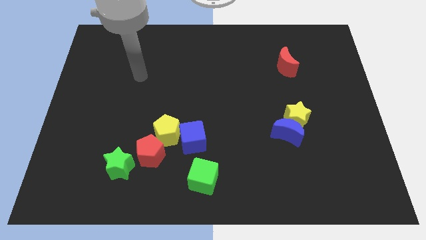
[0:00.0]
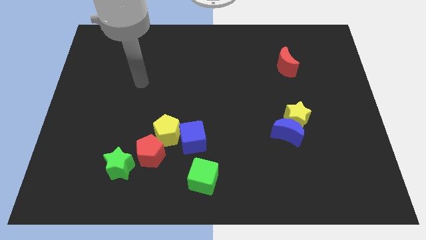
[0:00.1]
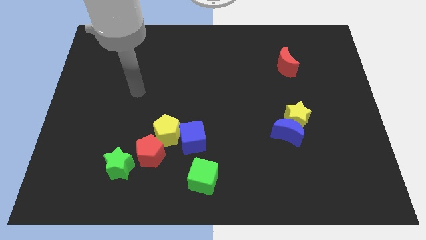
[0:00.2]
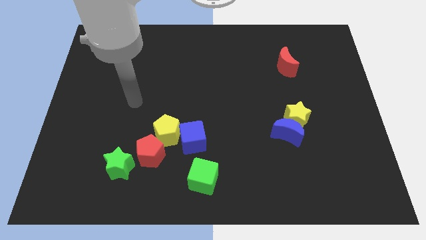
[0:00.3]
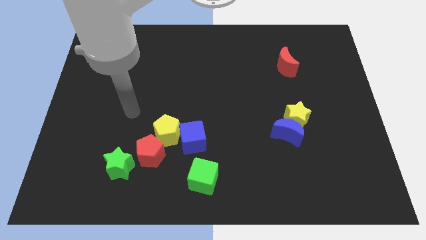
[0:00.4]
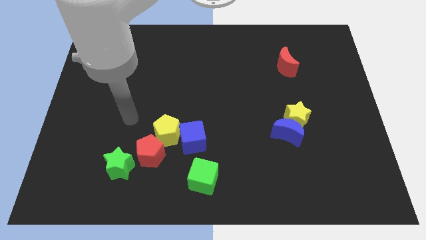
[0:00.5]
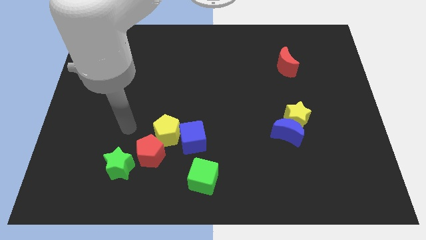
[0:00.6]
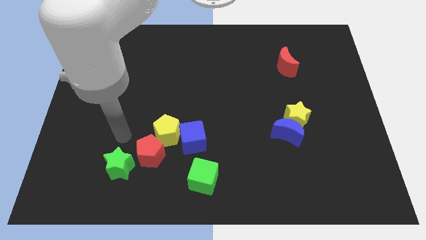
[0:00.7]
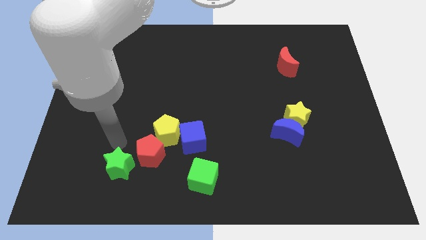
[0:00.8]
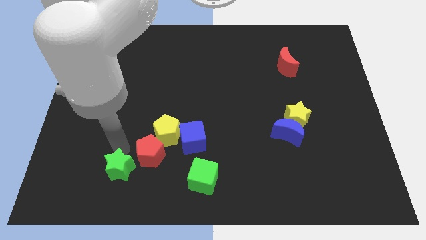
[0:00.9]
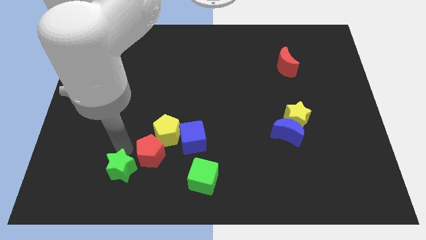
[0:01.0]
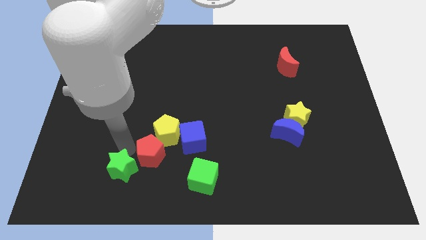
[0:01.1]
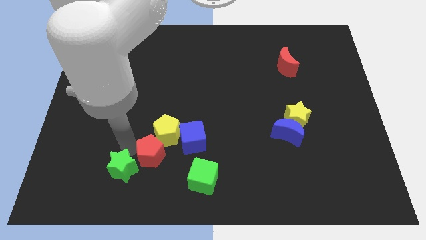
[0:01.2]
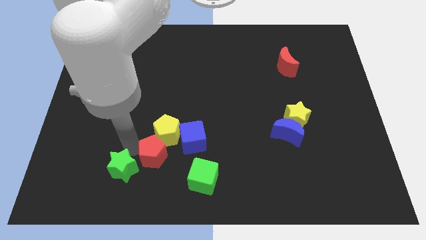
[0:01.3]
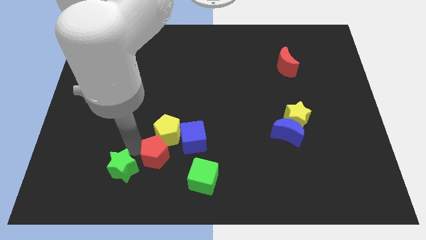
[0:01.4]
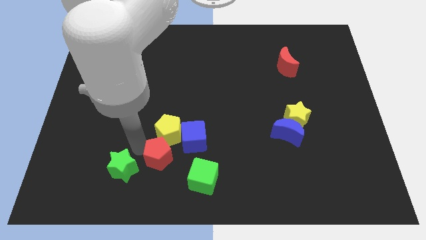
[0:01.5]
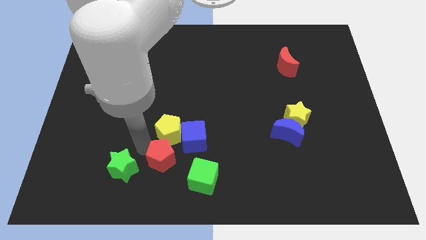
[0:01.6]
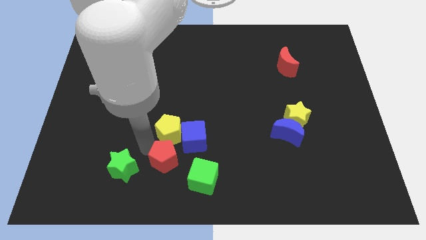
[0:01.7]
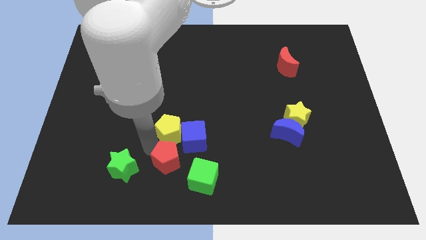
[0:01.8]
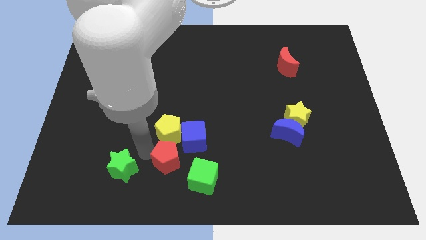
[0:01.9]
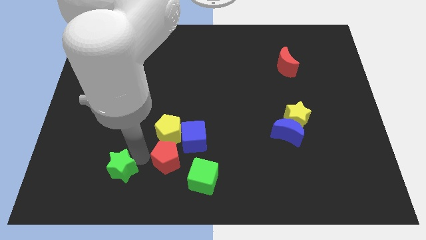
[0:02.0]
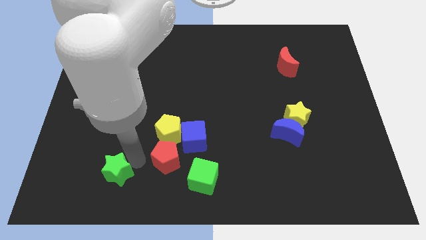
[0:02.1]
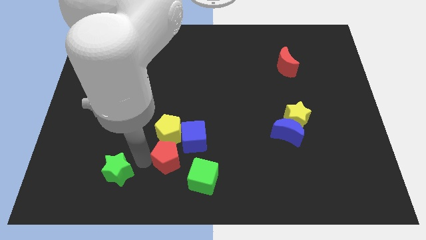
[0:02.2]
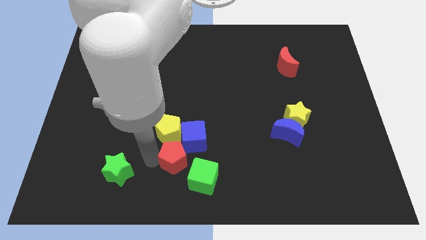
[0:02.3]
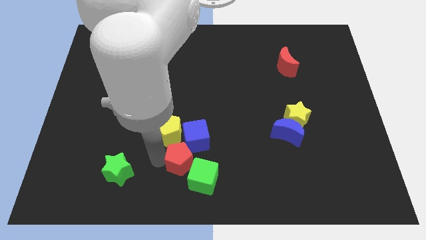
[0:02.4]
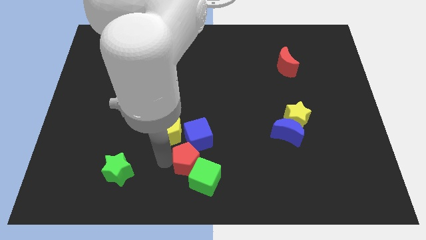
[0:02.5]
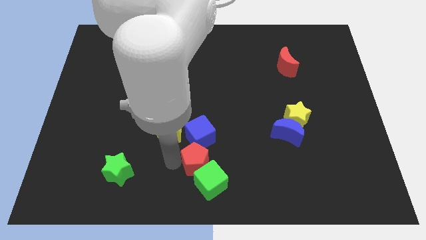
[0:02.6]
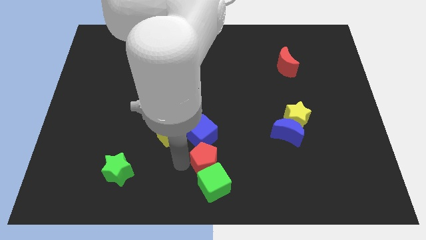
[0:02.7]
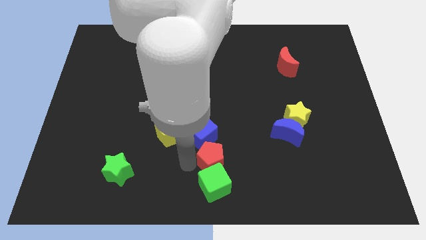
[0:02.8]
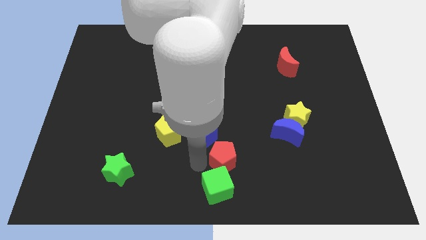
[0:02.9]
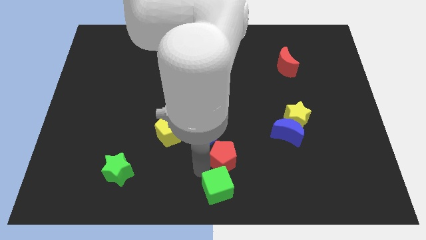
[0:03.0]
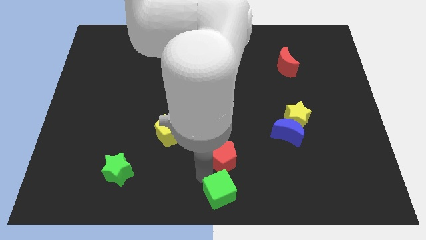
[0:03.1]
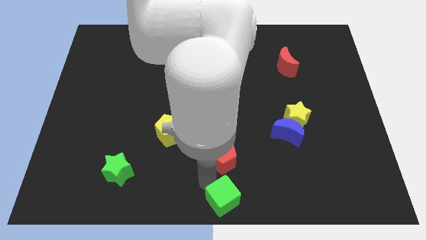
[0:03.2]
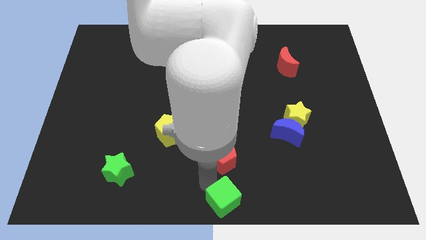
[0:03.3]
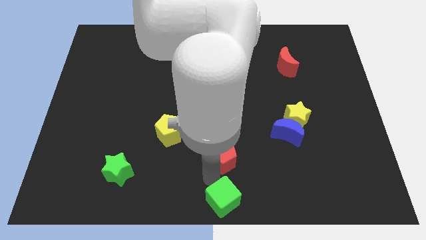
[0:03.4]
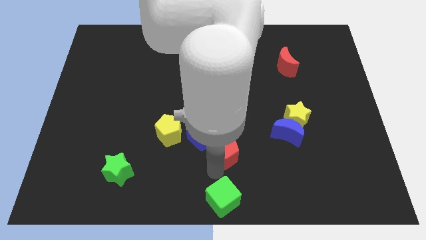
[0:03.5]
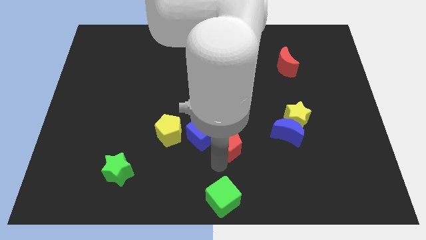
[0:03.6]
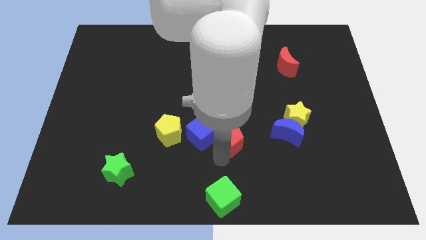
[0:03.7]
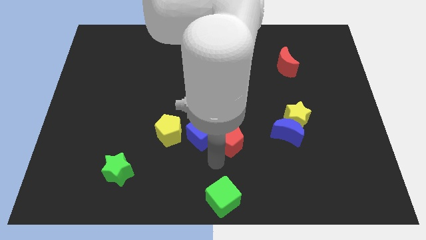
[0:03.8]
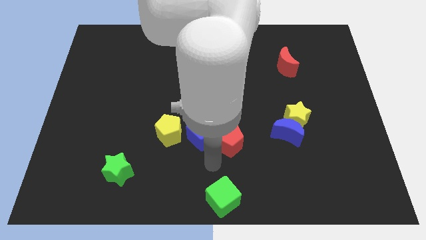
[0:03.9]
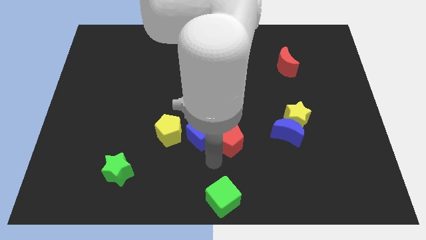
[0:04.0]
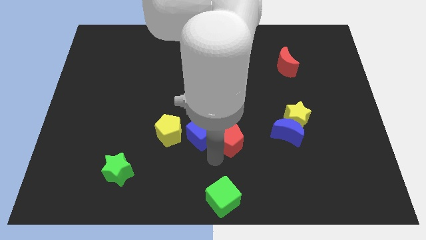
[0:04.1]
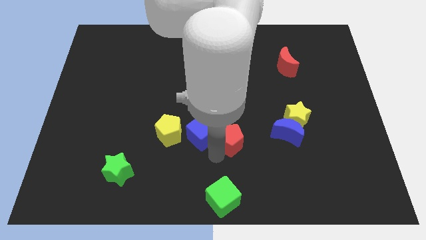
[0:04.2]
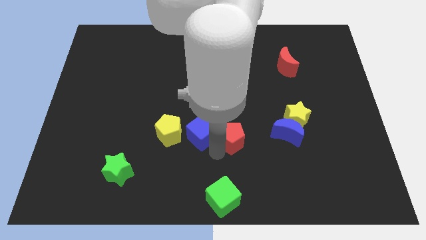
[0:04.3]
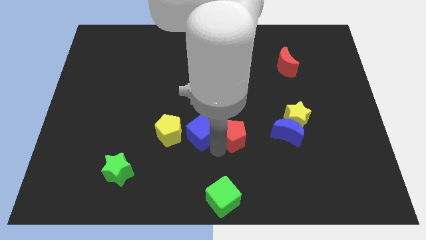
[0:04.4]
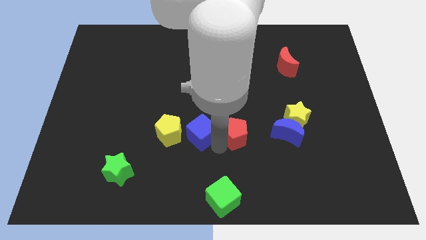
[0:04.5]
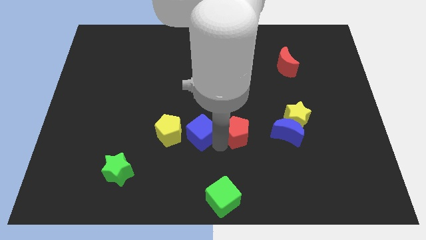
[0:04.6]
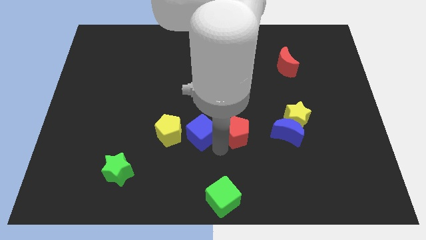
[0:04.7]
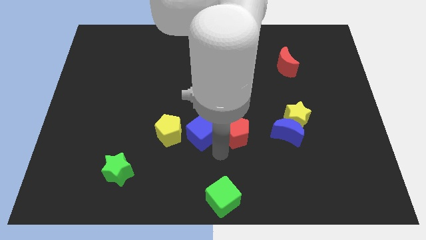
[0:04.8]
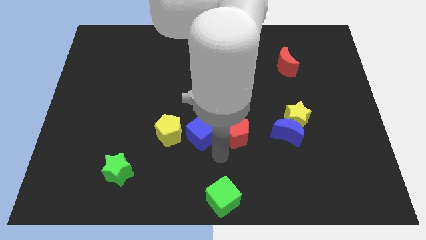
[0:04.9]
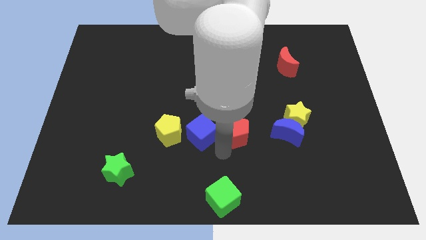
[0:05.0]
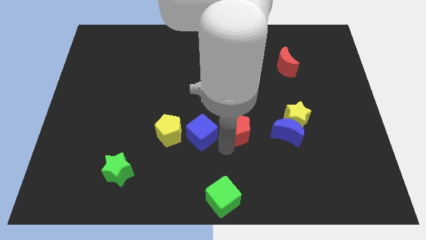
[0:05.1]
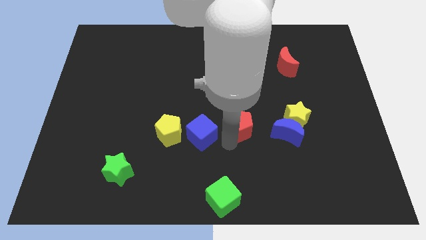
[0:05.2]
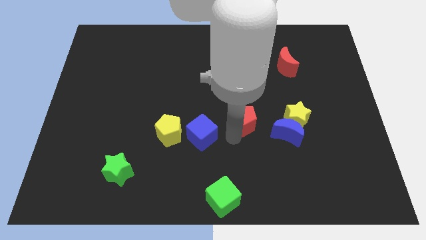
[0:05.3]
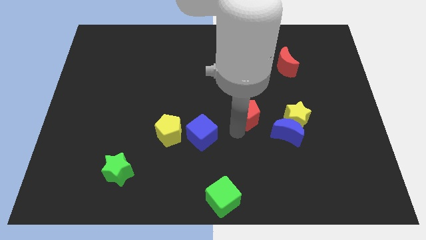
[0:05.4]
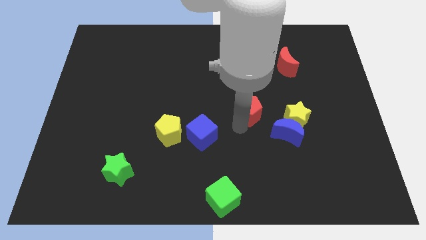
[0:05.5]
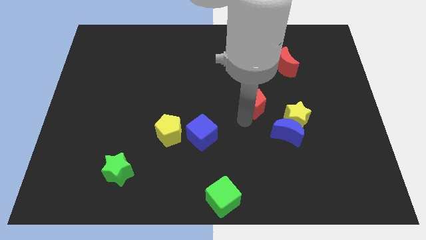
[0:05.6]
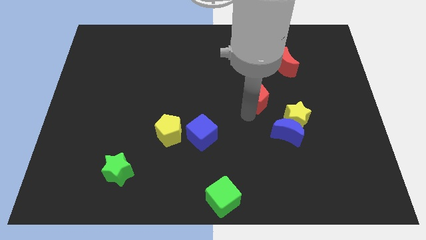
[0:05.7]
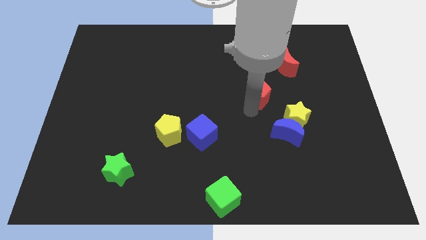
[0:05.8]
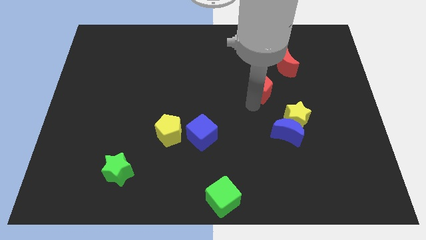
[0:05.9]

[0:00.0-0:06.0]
push the red pentagon to the bottom left side of the red moon

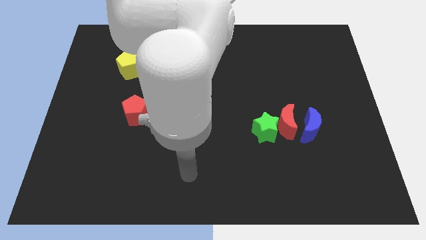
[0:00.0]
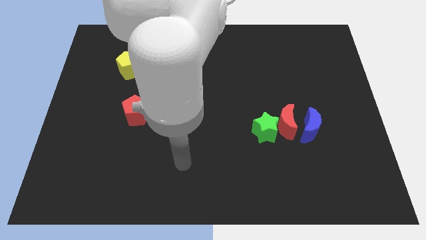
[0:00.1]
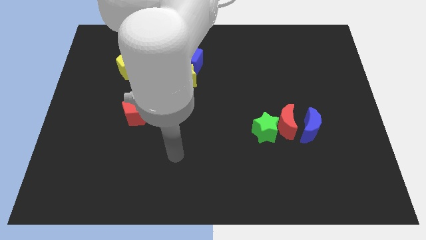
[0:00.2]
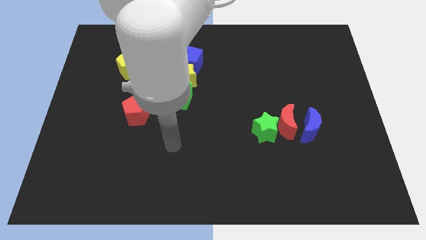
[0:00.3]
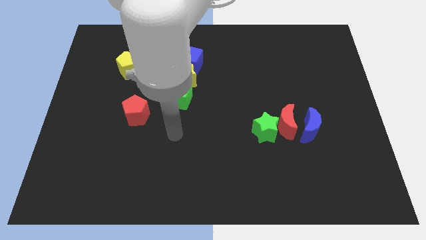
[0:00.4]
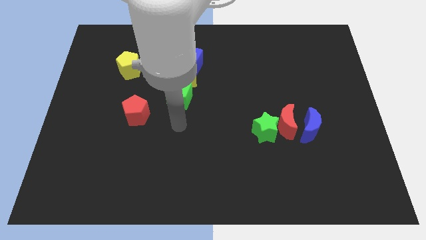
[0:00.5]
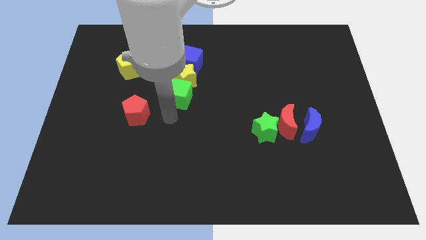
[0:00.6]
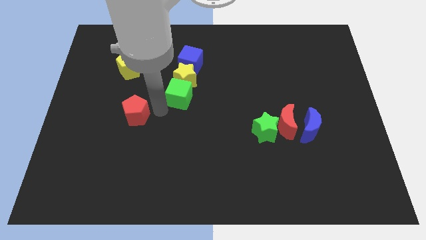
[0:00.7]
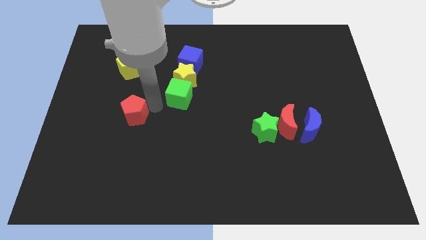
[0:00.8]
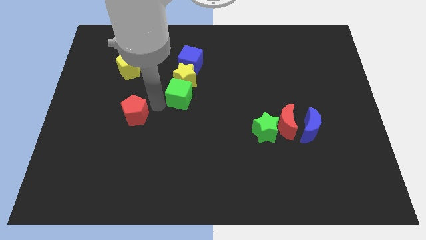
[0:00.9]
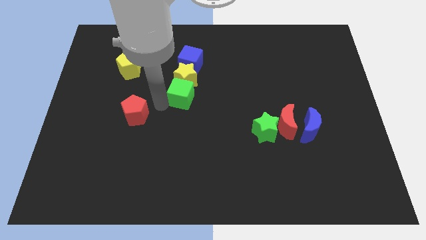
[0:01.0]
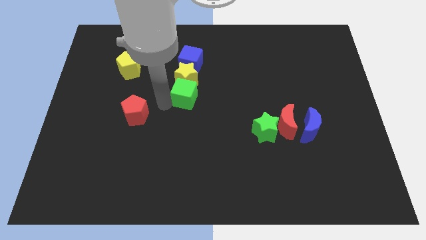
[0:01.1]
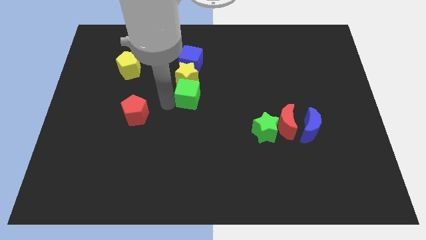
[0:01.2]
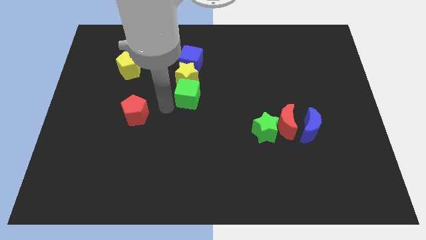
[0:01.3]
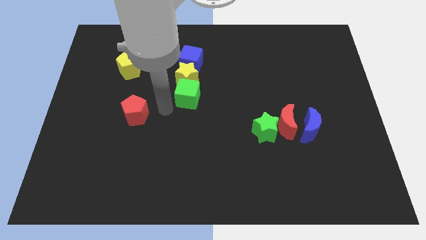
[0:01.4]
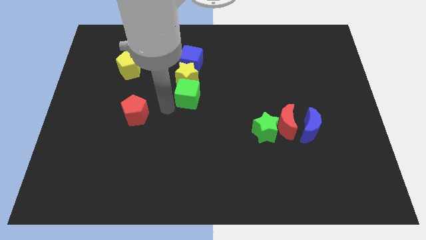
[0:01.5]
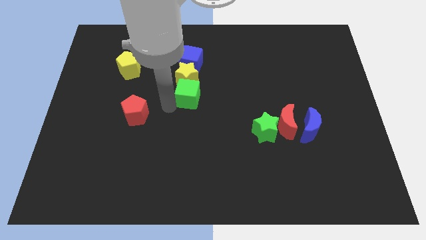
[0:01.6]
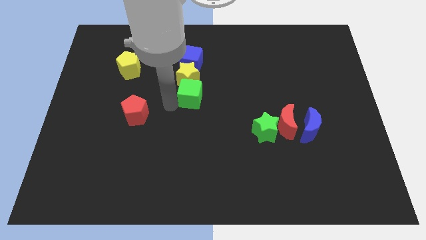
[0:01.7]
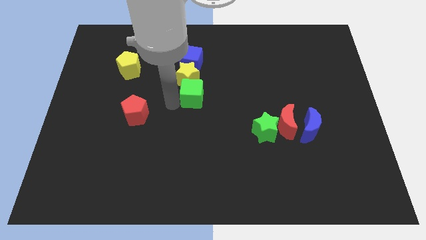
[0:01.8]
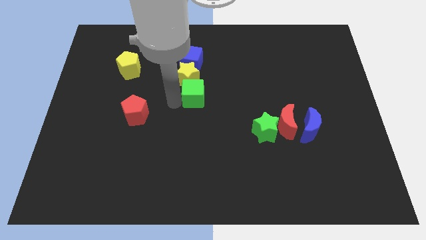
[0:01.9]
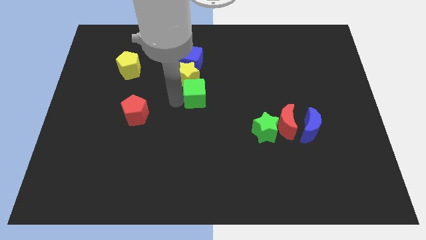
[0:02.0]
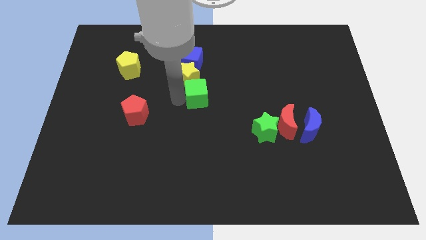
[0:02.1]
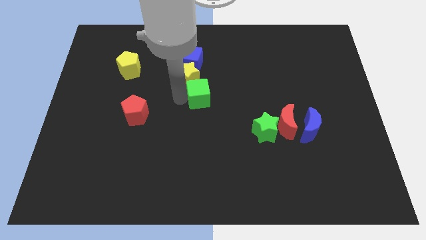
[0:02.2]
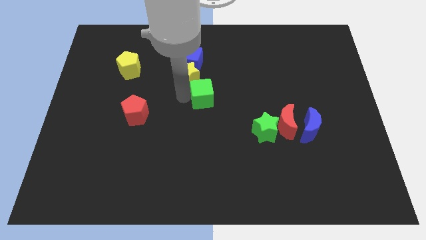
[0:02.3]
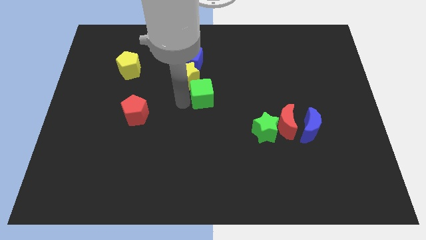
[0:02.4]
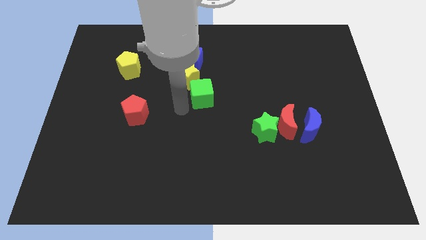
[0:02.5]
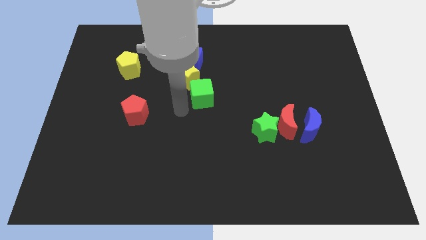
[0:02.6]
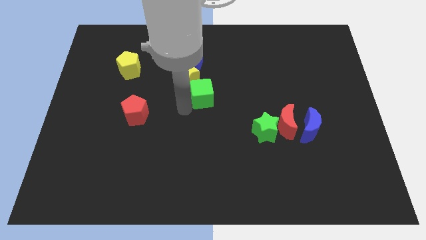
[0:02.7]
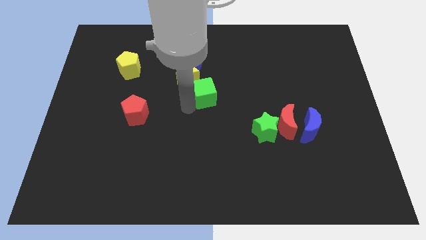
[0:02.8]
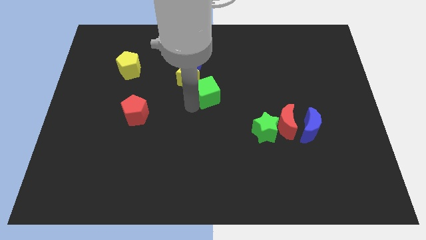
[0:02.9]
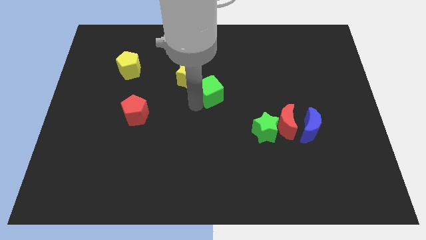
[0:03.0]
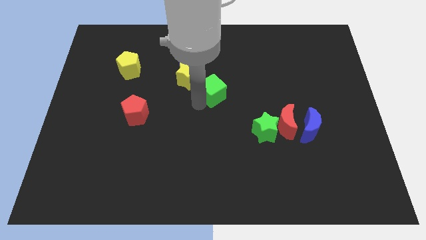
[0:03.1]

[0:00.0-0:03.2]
move the green cube to the right of the yellow star
